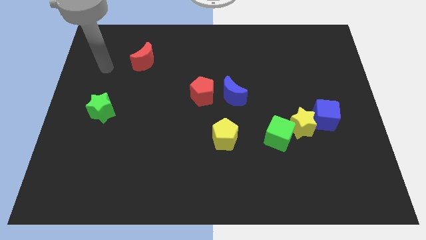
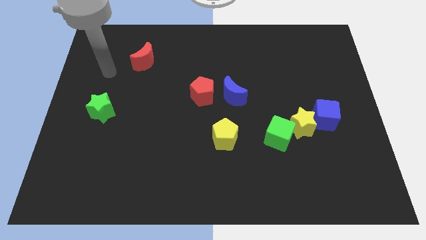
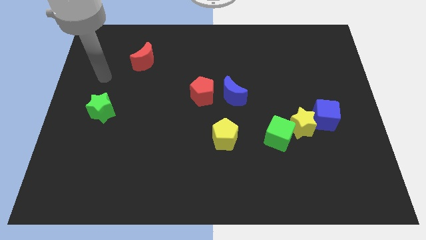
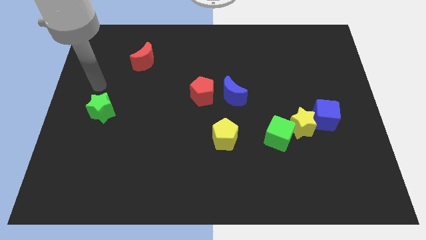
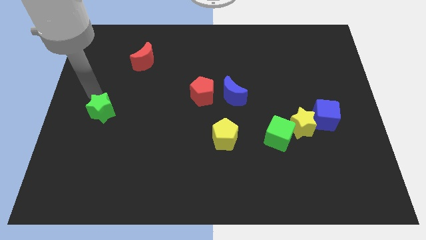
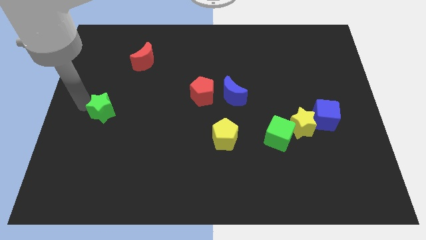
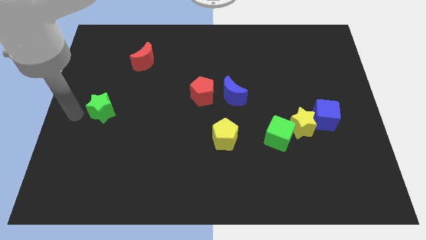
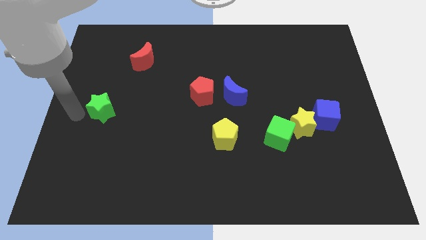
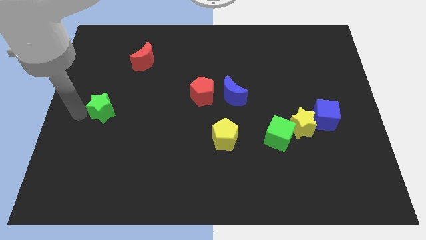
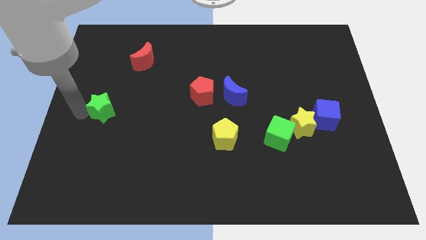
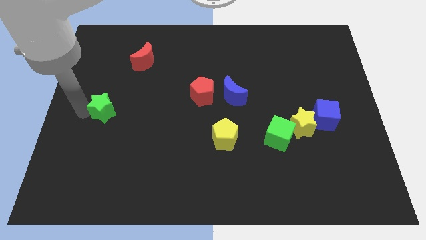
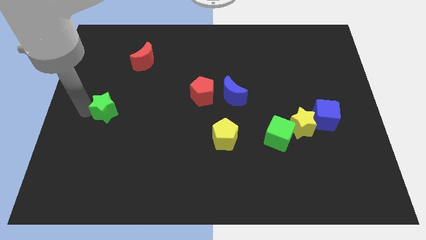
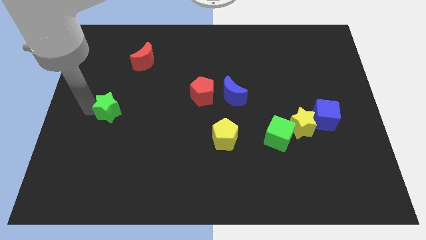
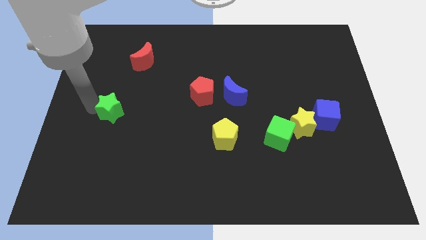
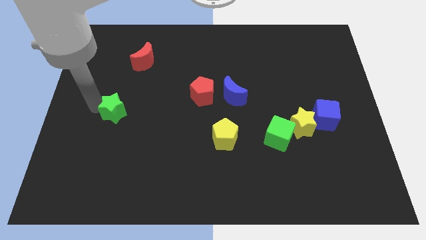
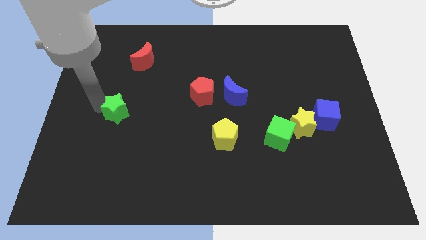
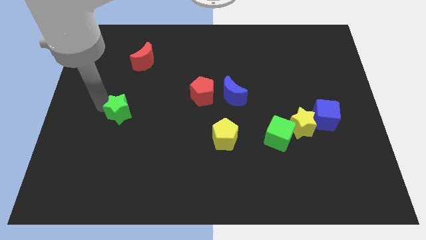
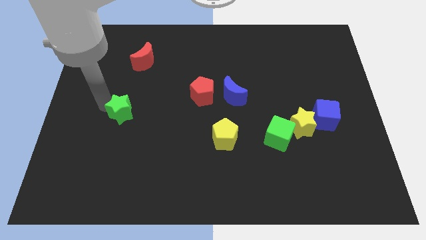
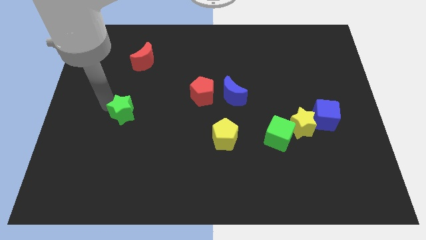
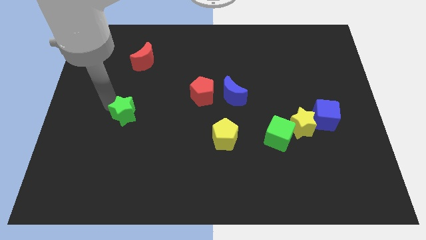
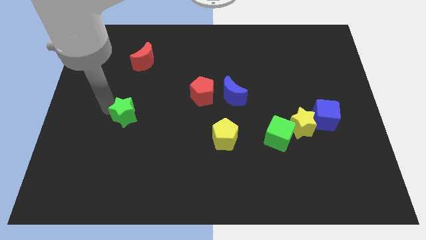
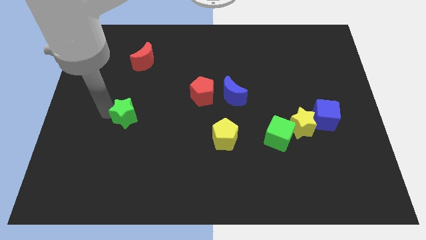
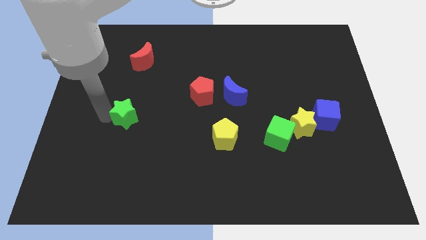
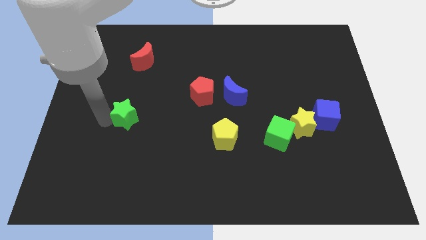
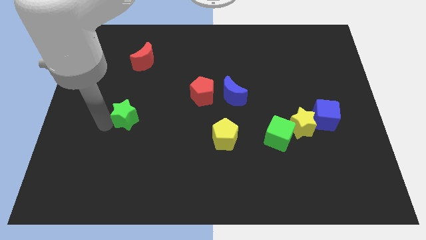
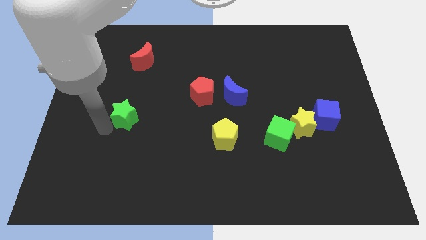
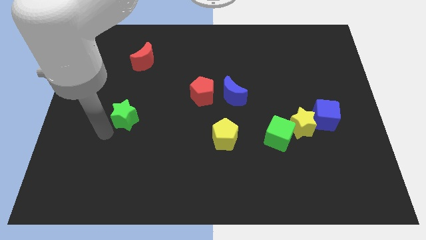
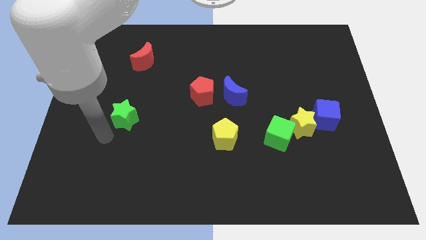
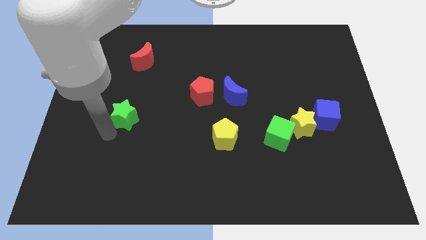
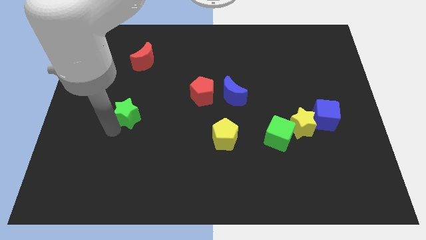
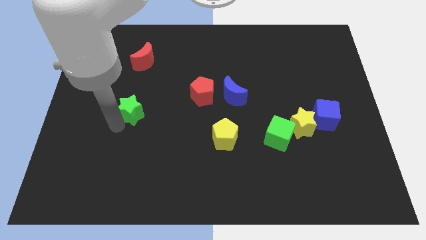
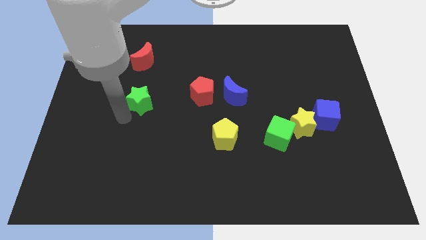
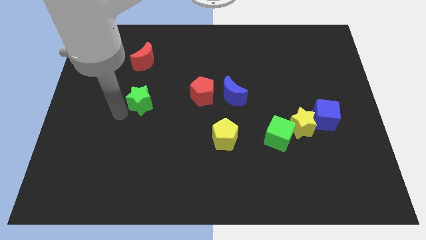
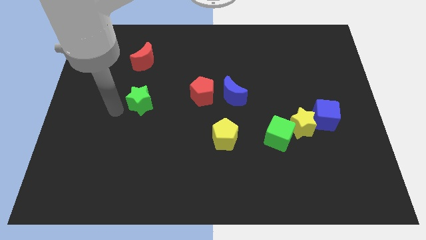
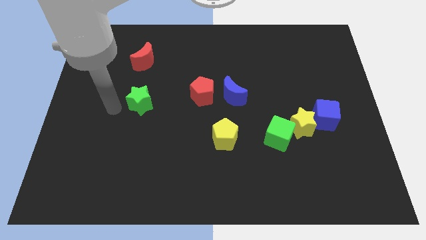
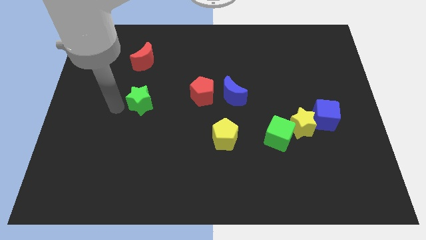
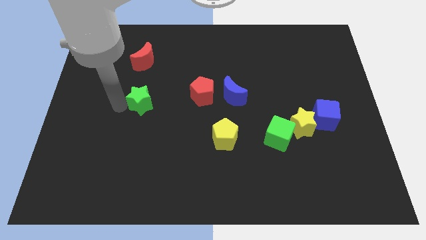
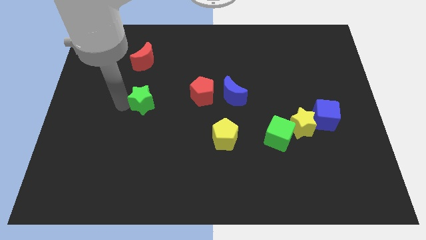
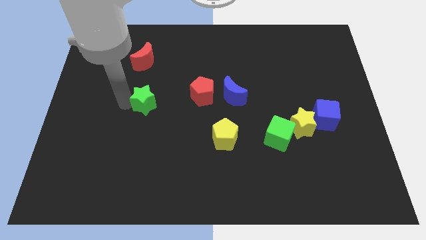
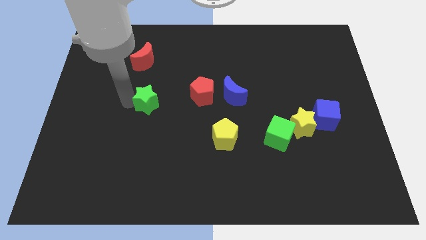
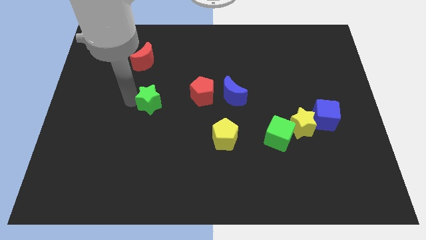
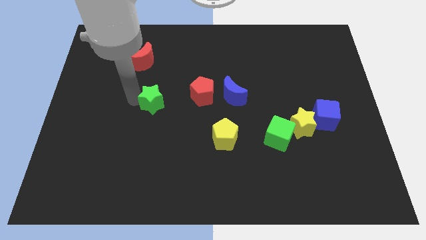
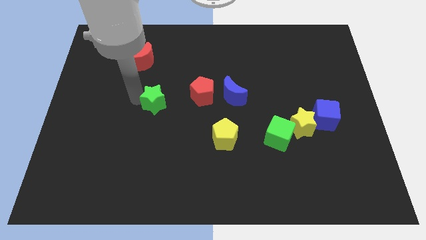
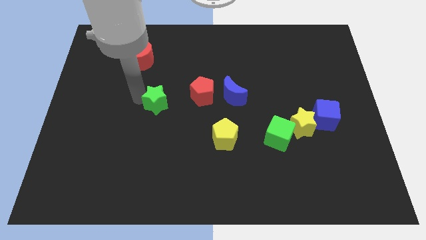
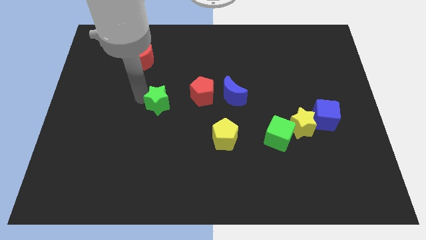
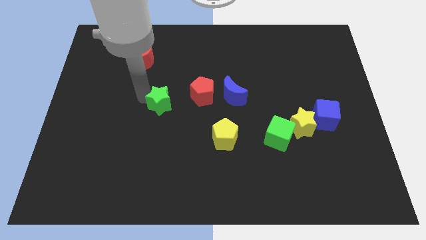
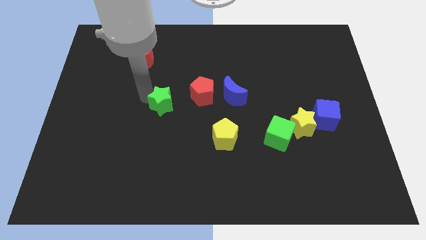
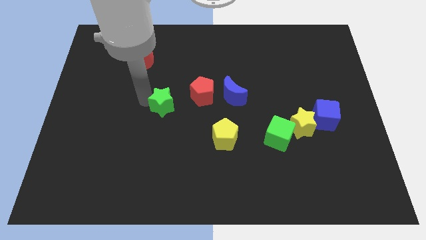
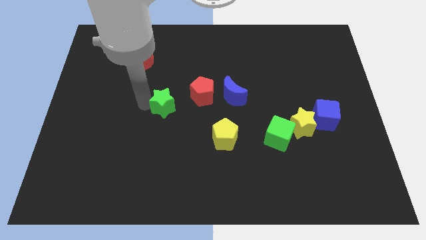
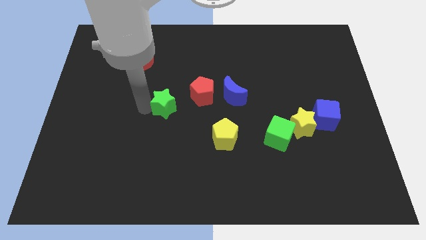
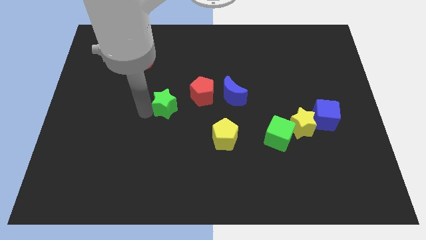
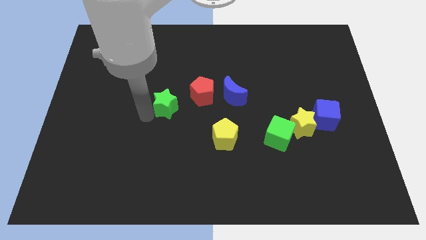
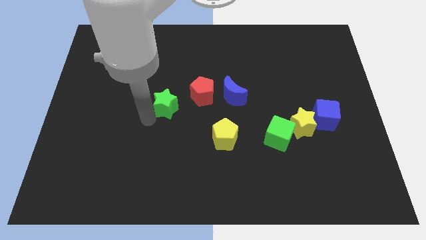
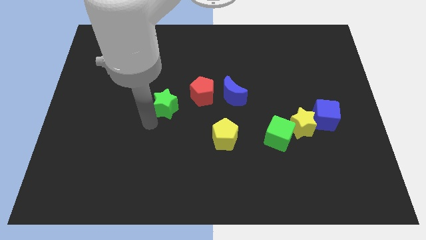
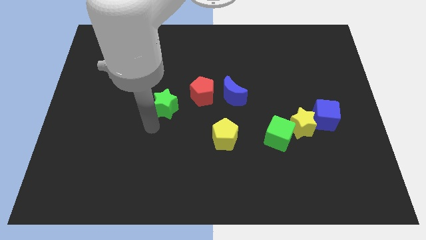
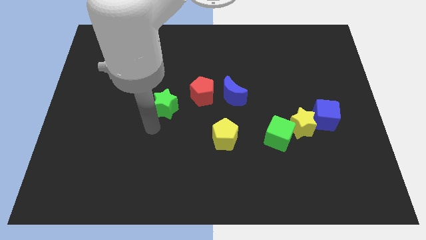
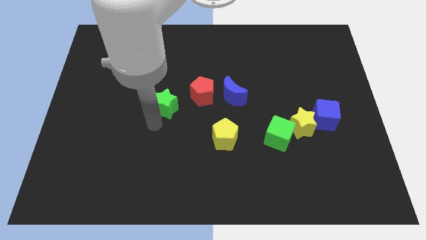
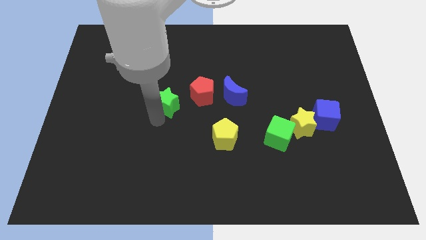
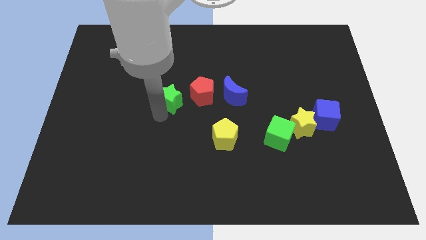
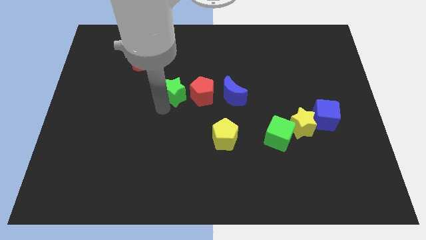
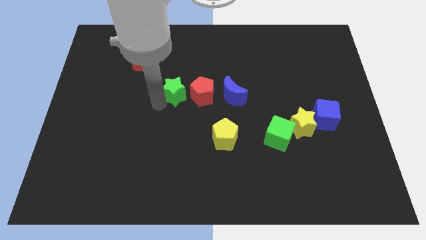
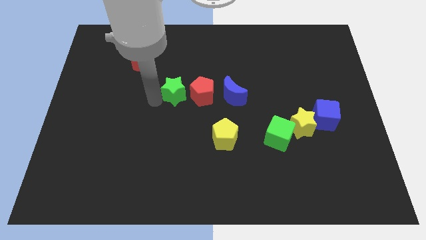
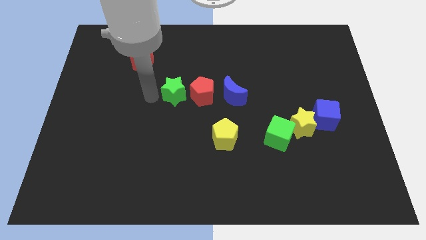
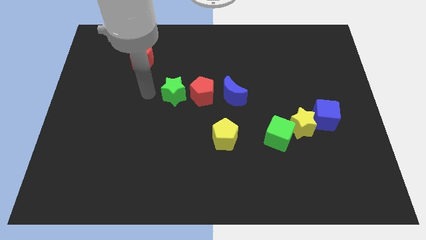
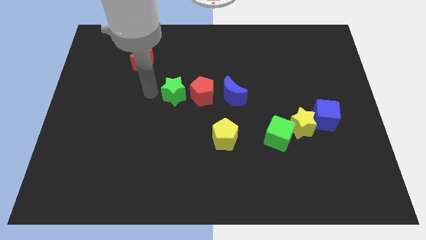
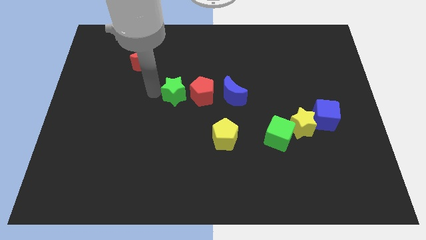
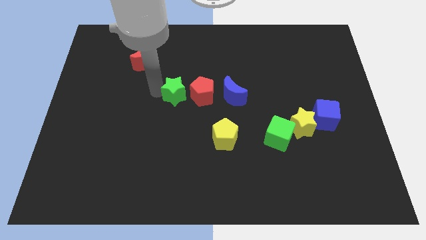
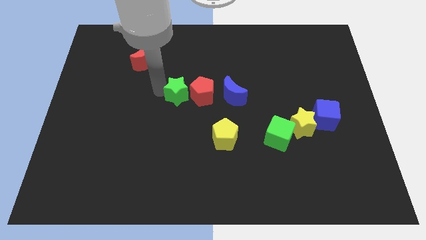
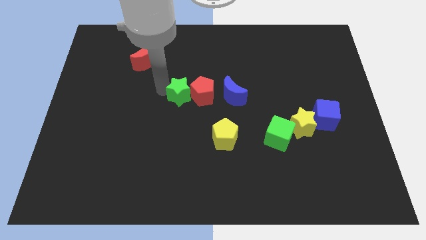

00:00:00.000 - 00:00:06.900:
move the green star to the red pentagon

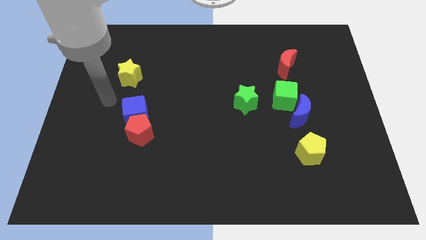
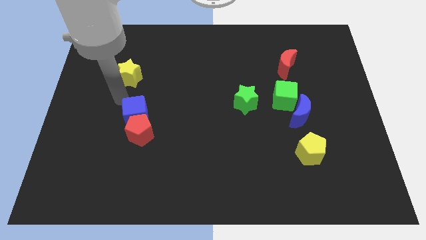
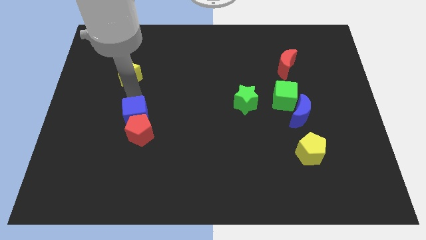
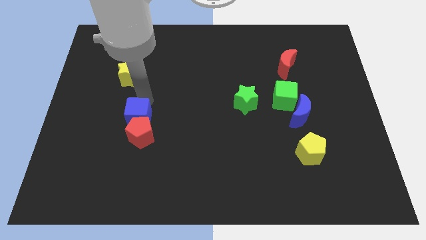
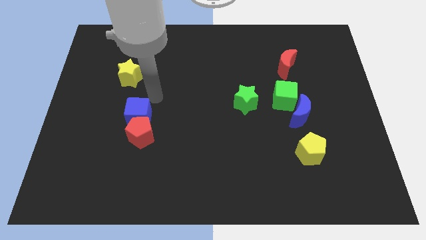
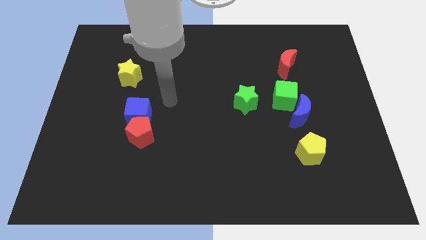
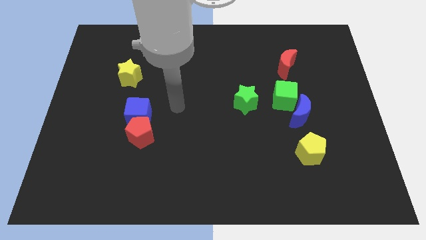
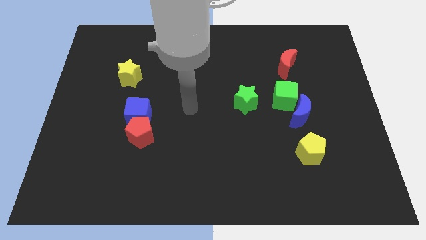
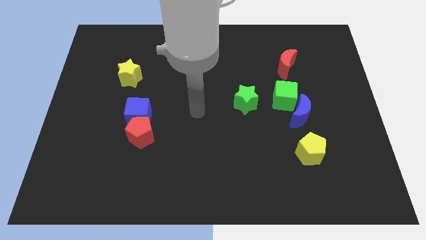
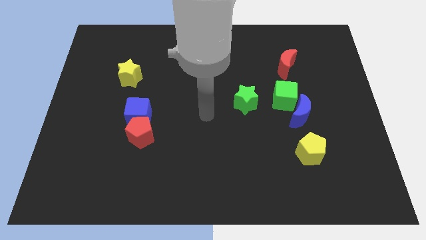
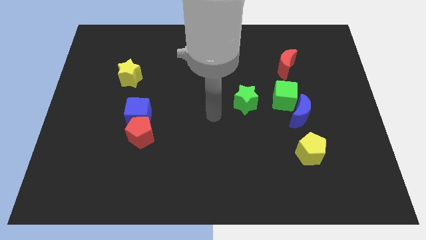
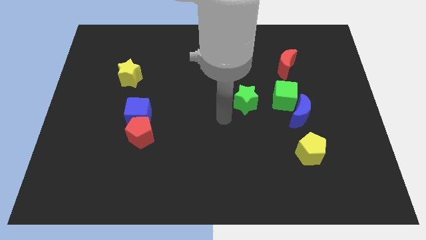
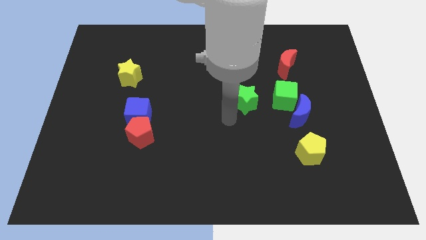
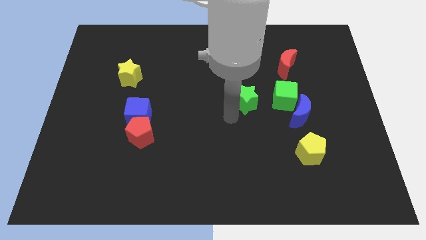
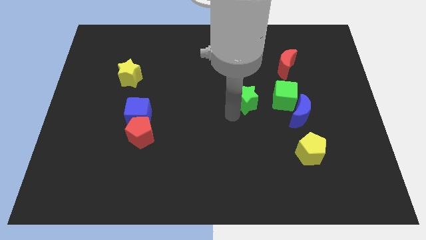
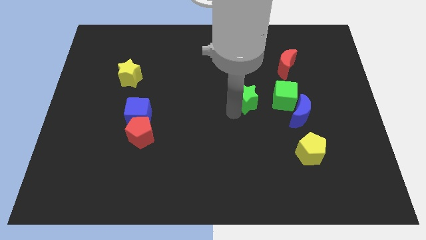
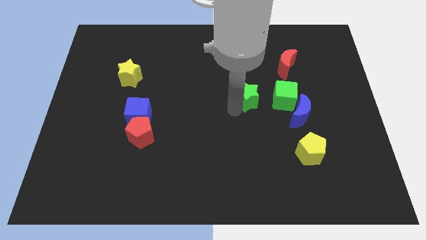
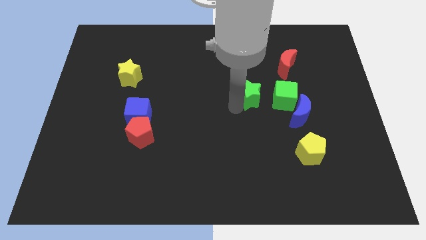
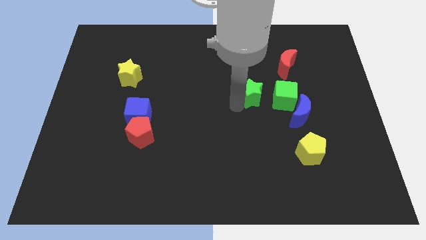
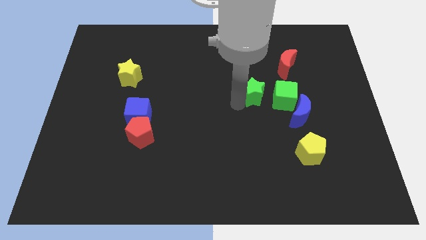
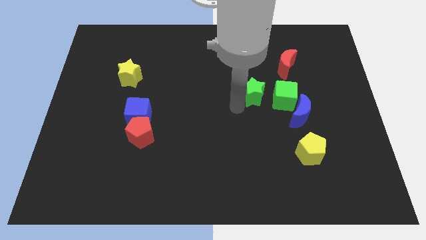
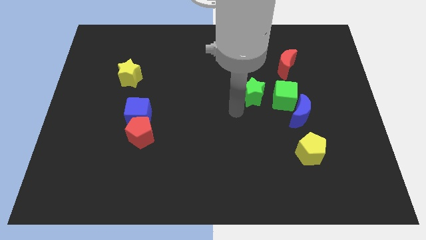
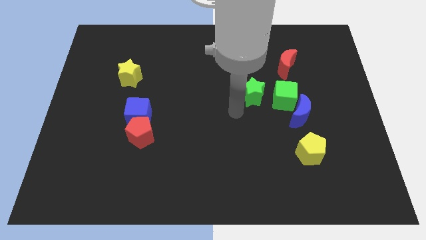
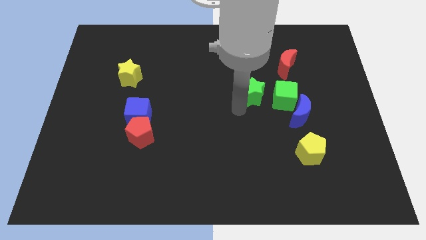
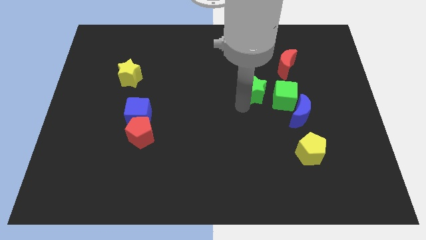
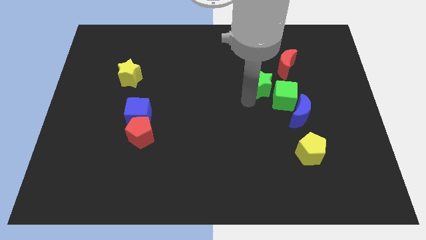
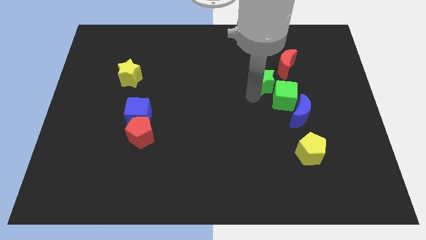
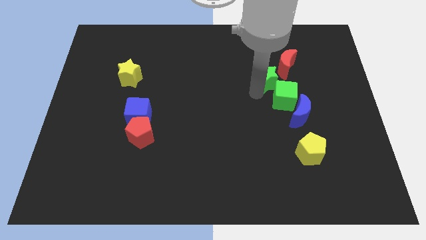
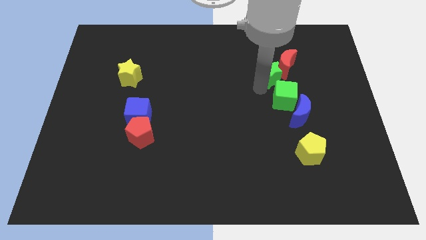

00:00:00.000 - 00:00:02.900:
put the green star close to the red moon
